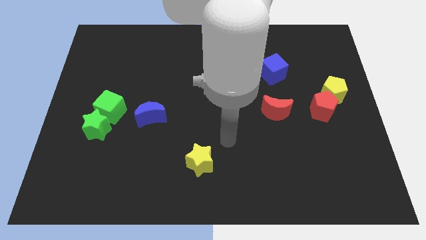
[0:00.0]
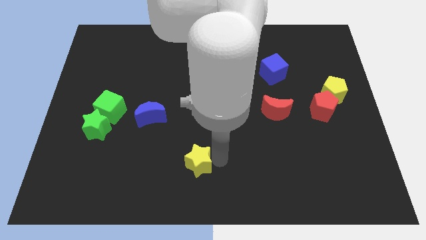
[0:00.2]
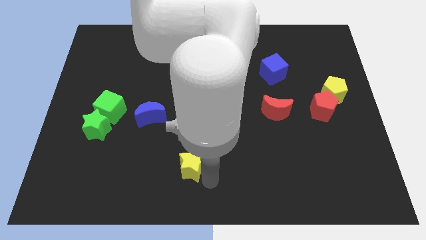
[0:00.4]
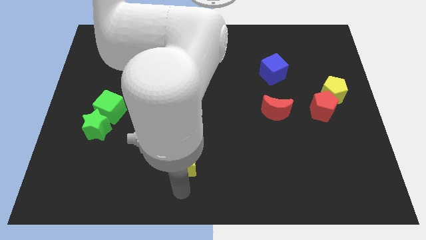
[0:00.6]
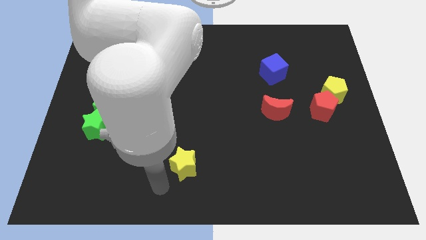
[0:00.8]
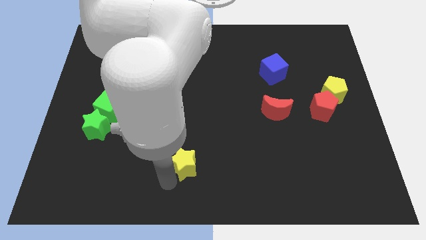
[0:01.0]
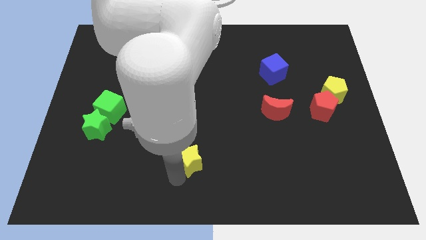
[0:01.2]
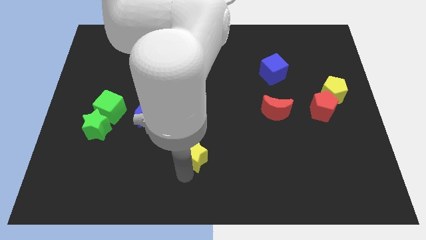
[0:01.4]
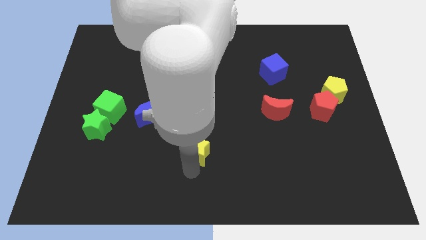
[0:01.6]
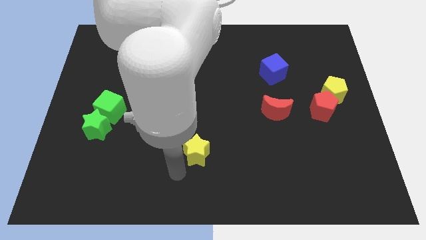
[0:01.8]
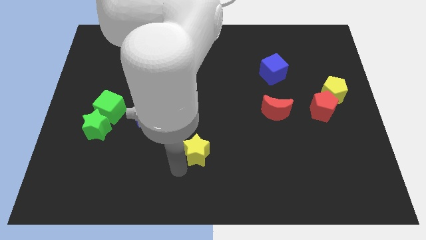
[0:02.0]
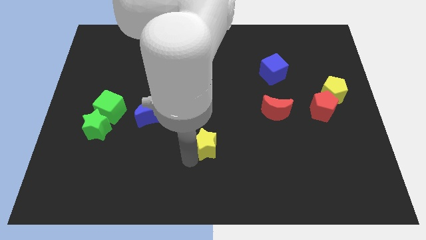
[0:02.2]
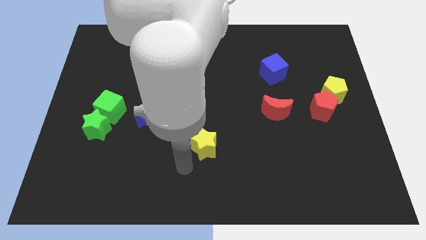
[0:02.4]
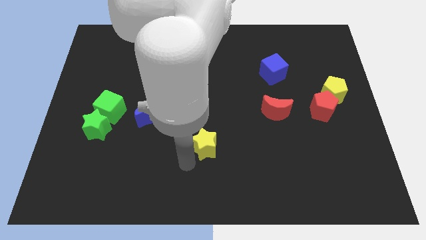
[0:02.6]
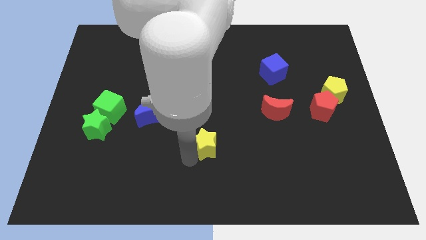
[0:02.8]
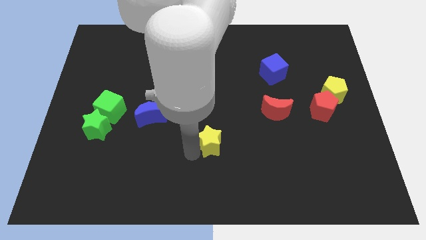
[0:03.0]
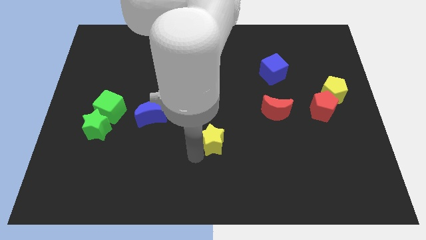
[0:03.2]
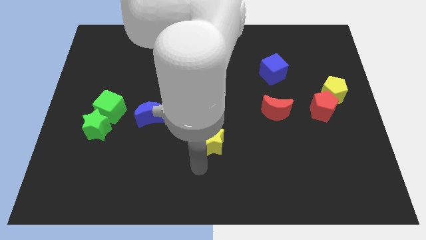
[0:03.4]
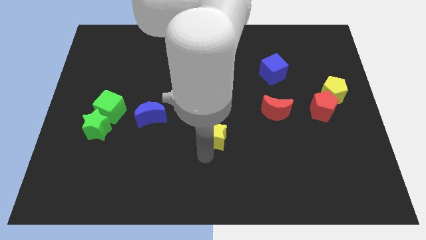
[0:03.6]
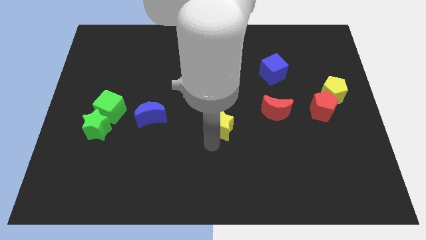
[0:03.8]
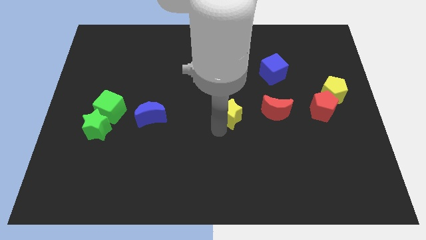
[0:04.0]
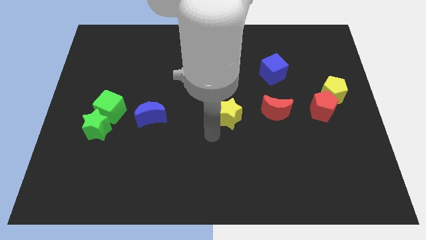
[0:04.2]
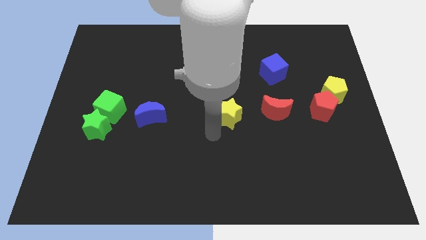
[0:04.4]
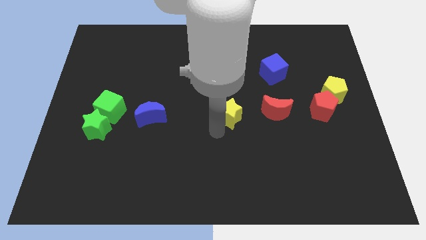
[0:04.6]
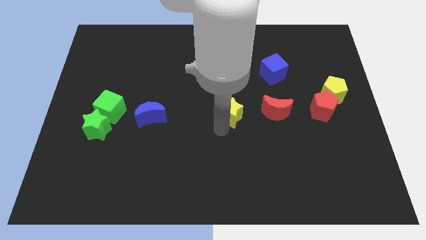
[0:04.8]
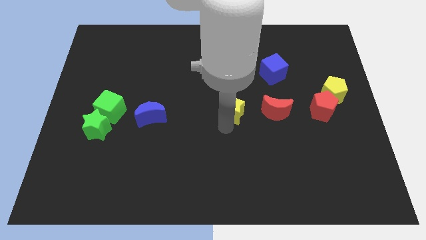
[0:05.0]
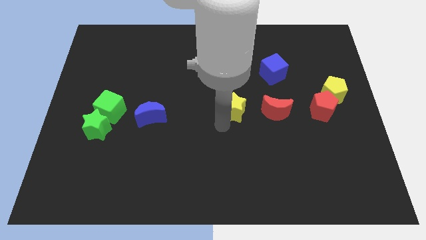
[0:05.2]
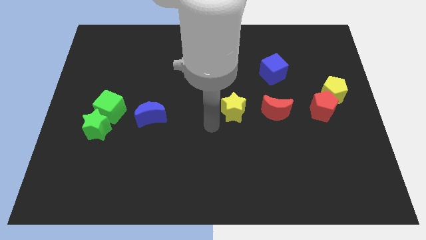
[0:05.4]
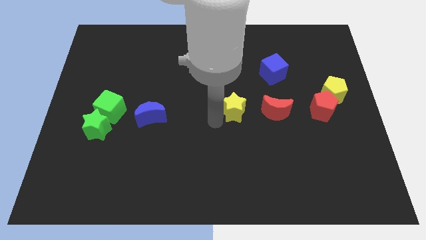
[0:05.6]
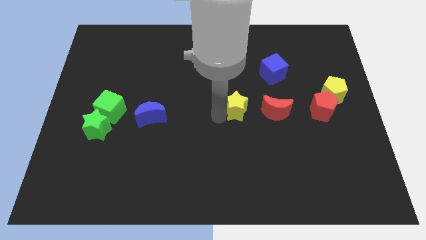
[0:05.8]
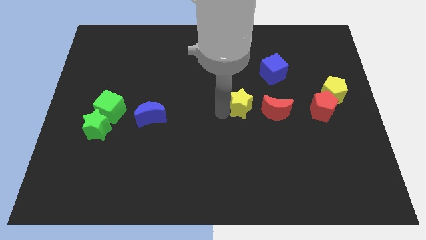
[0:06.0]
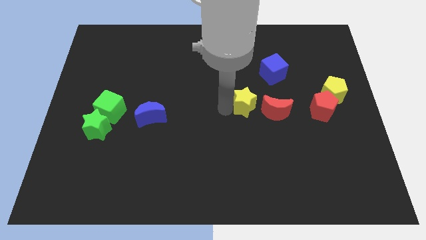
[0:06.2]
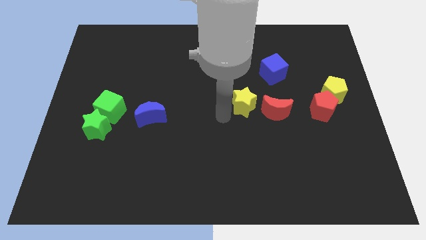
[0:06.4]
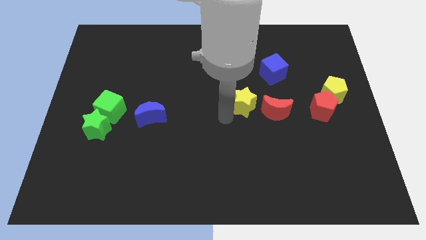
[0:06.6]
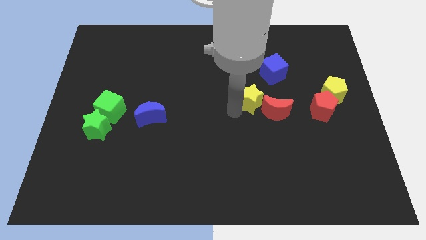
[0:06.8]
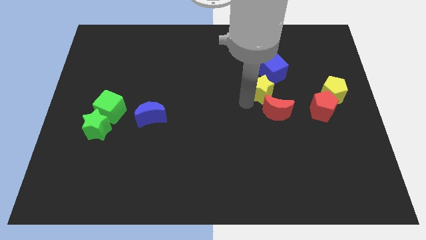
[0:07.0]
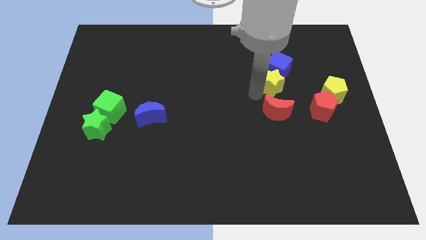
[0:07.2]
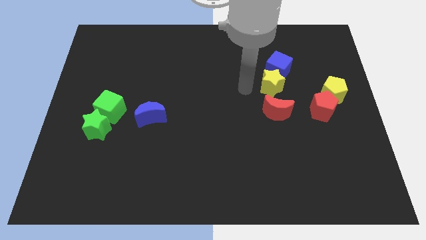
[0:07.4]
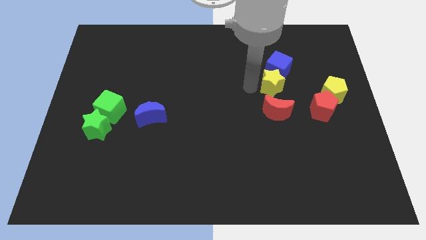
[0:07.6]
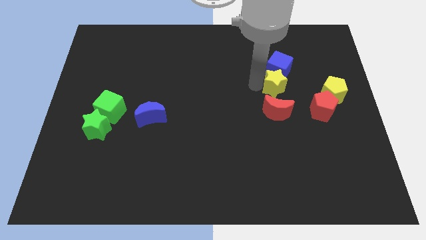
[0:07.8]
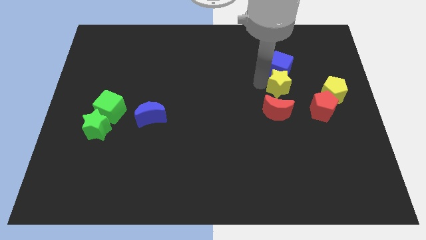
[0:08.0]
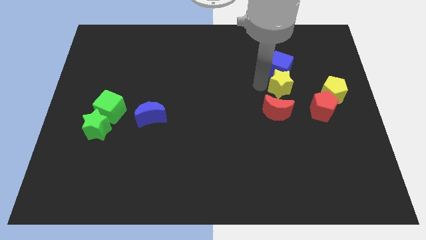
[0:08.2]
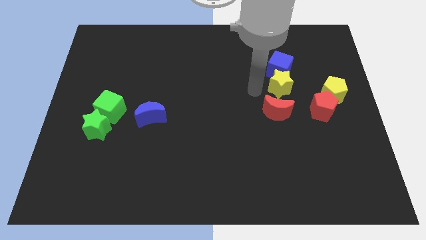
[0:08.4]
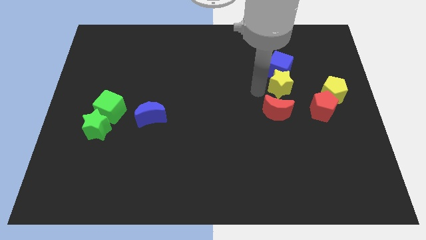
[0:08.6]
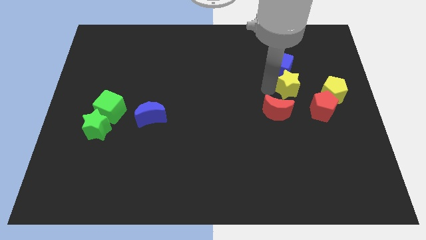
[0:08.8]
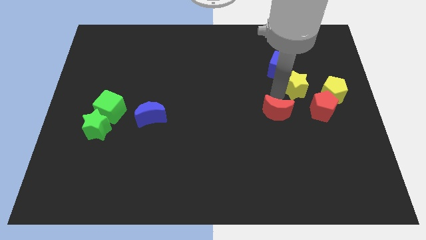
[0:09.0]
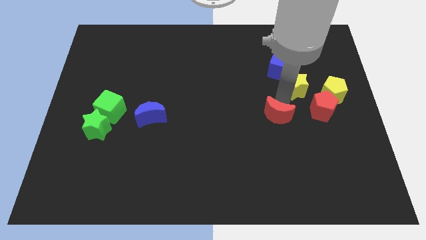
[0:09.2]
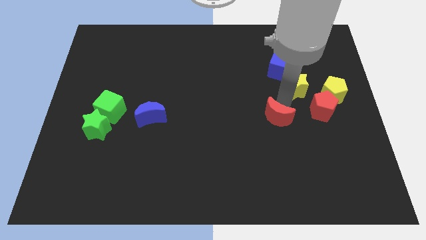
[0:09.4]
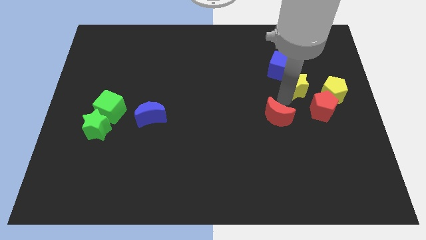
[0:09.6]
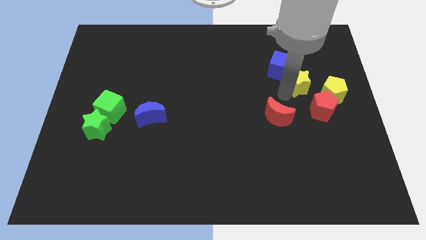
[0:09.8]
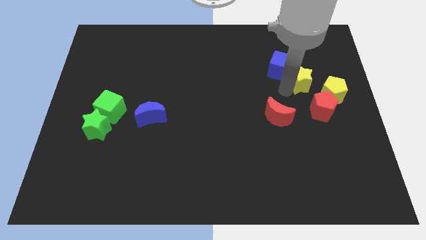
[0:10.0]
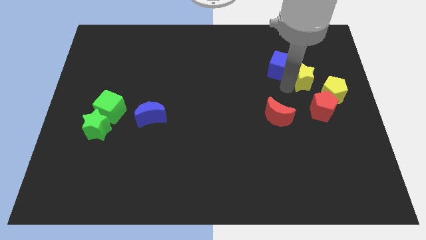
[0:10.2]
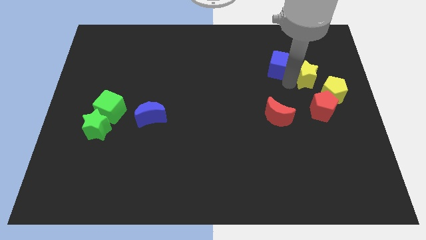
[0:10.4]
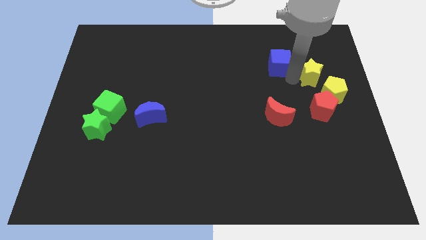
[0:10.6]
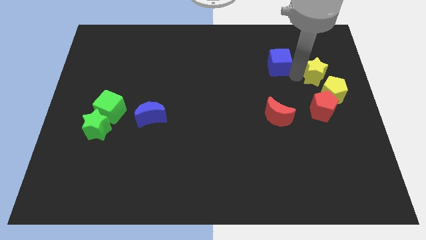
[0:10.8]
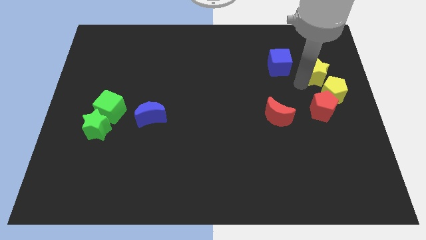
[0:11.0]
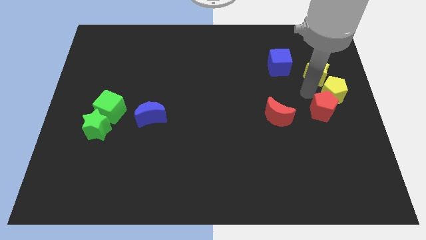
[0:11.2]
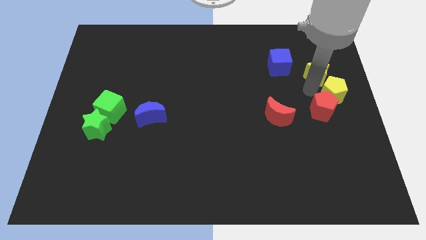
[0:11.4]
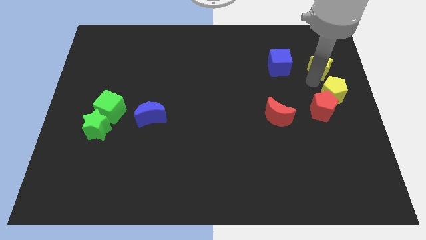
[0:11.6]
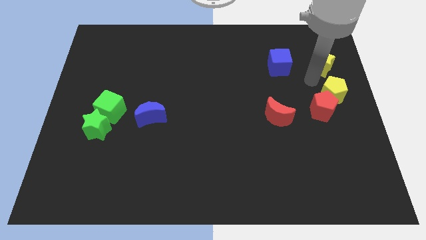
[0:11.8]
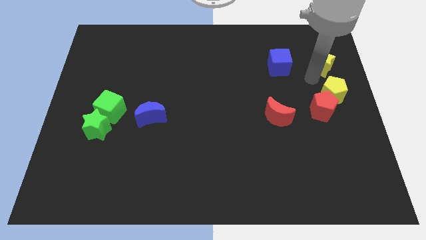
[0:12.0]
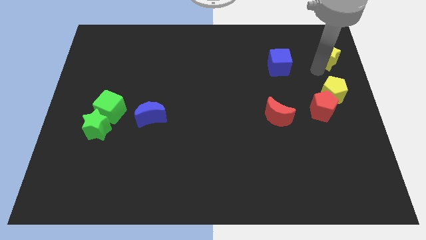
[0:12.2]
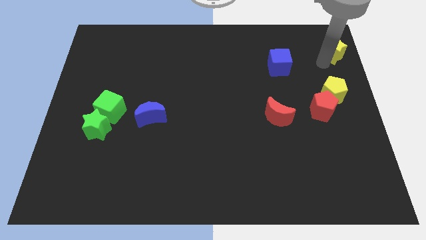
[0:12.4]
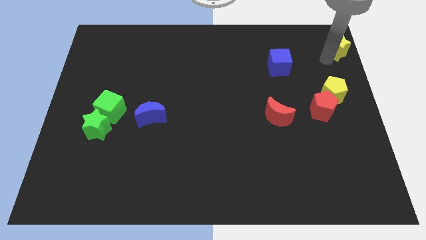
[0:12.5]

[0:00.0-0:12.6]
move the yellow star to the upper right corner
